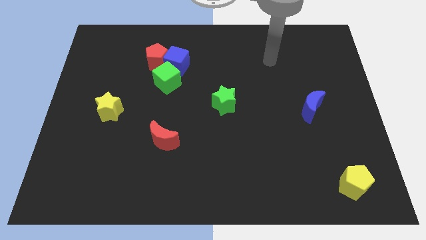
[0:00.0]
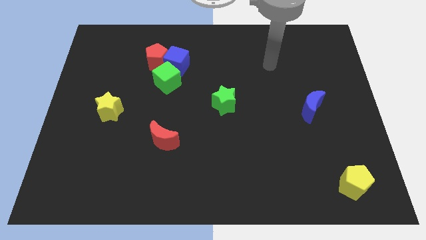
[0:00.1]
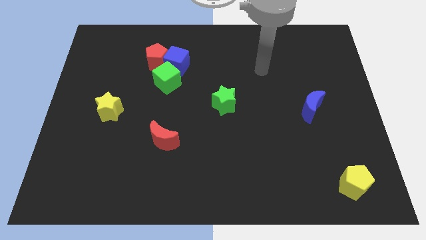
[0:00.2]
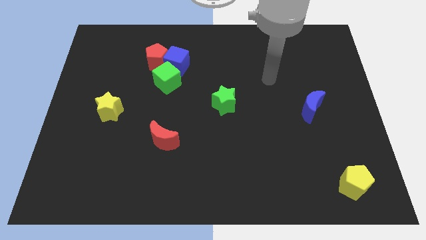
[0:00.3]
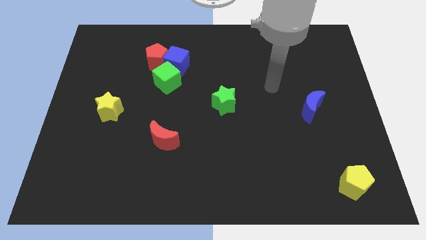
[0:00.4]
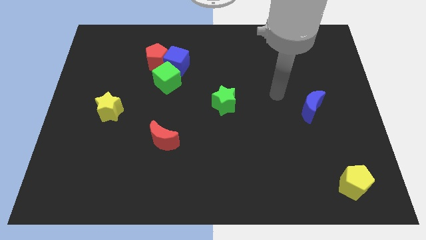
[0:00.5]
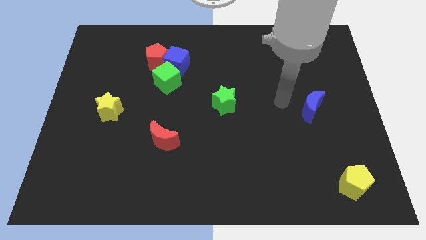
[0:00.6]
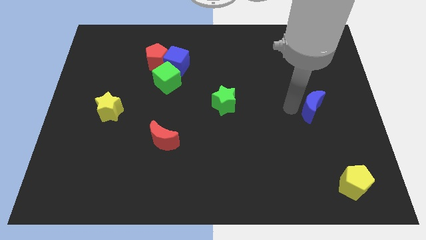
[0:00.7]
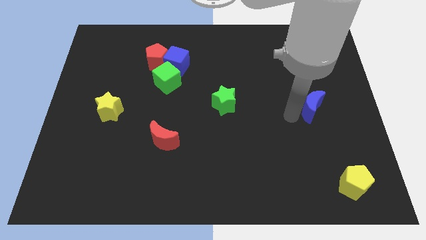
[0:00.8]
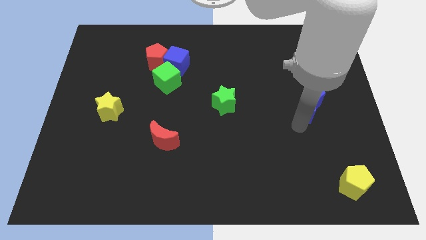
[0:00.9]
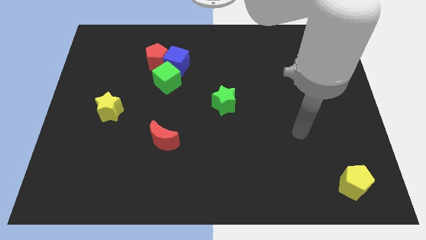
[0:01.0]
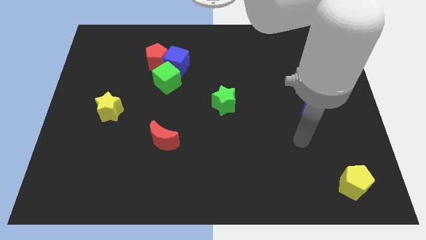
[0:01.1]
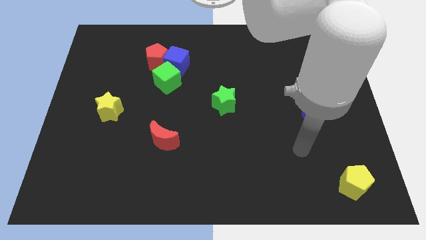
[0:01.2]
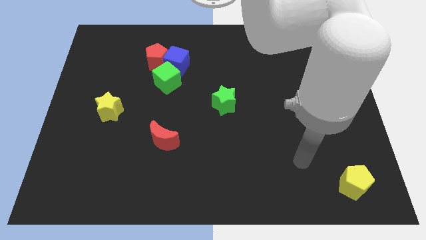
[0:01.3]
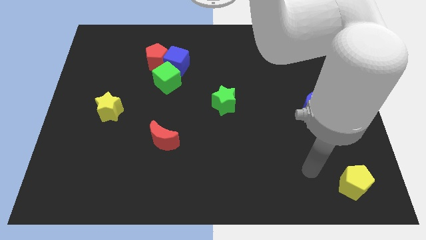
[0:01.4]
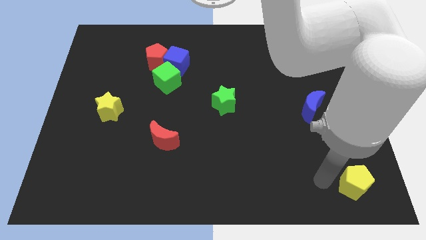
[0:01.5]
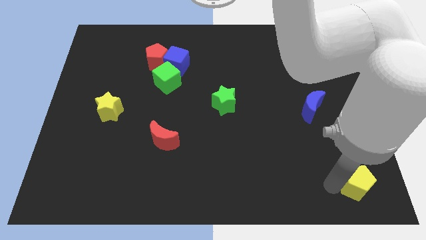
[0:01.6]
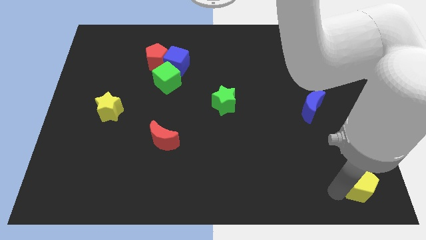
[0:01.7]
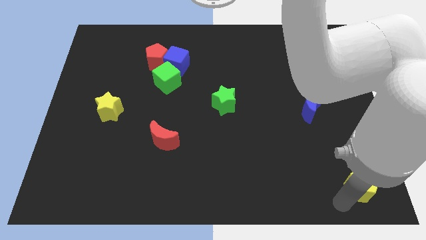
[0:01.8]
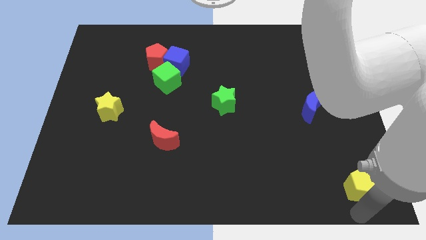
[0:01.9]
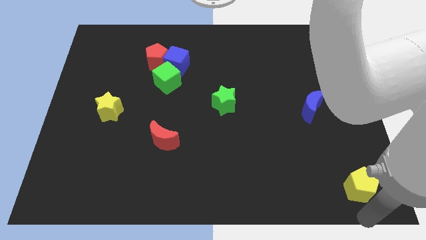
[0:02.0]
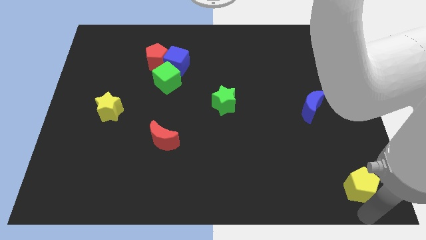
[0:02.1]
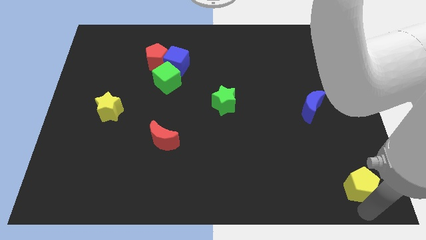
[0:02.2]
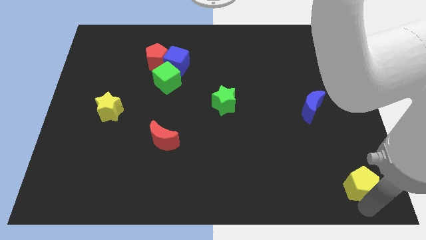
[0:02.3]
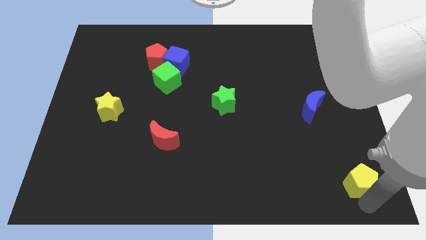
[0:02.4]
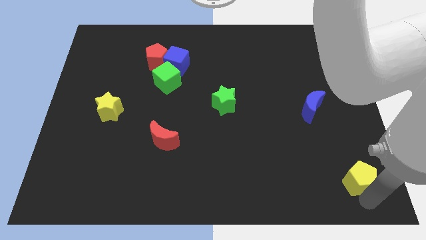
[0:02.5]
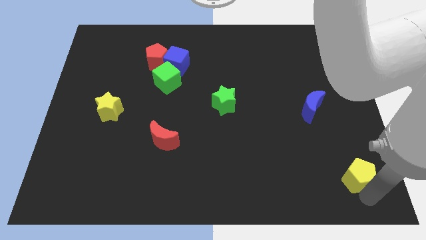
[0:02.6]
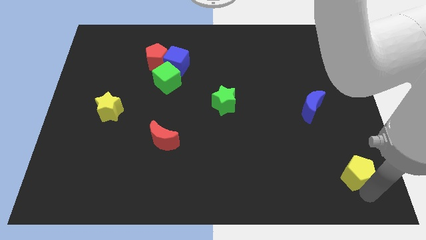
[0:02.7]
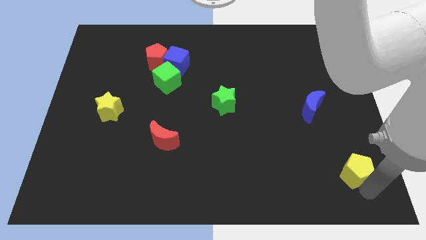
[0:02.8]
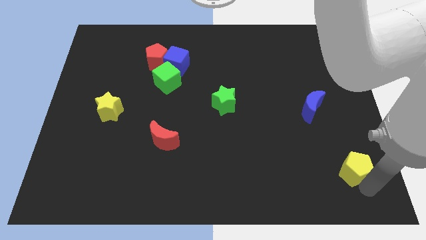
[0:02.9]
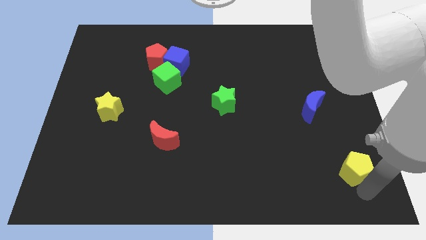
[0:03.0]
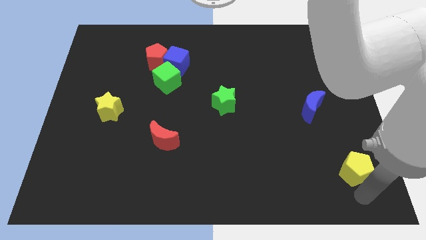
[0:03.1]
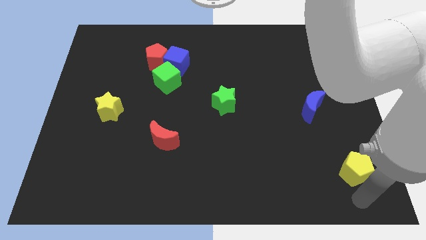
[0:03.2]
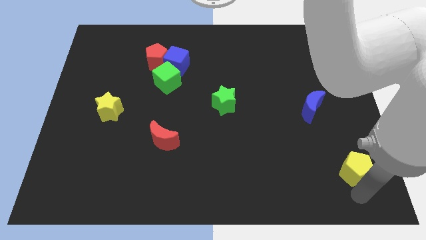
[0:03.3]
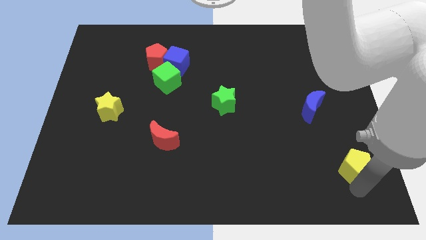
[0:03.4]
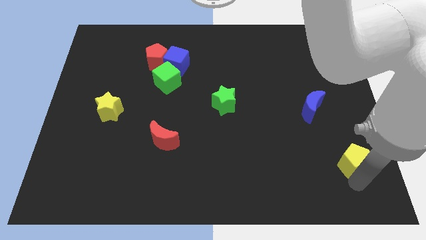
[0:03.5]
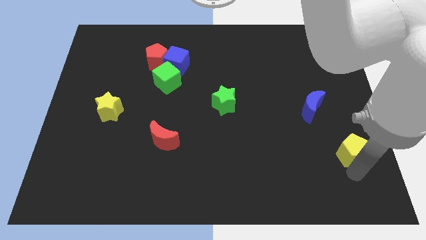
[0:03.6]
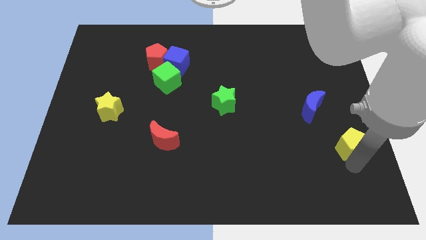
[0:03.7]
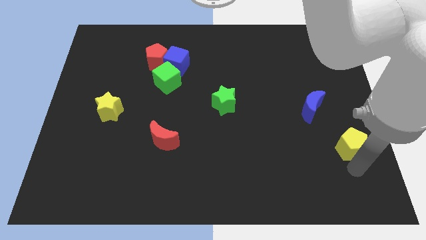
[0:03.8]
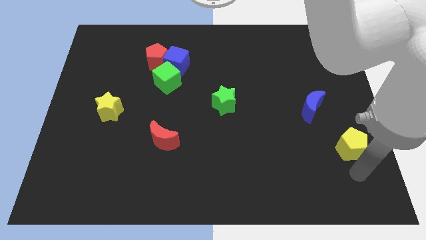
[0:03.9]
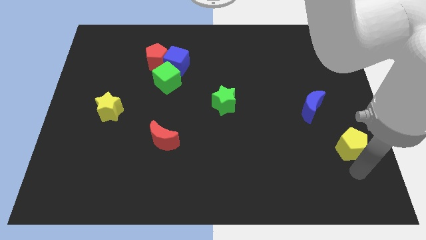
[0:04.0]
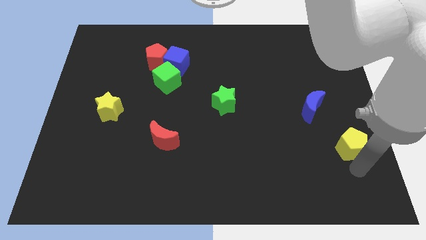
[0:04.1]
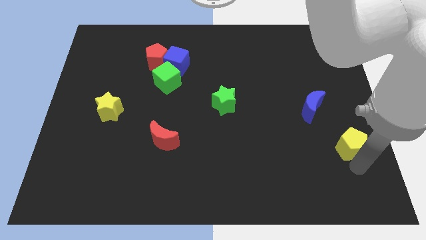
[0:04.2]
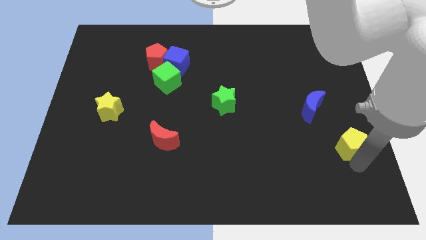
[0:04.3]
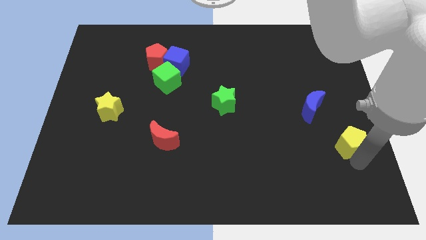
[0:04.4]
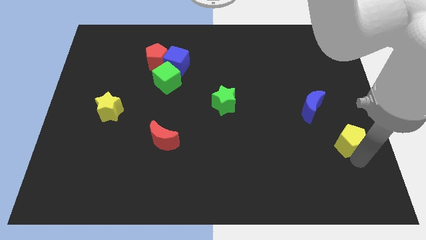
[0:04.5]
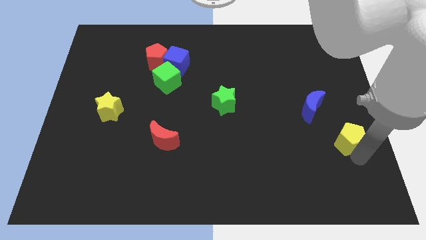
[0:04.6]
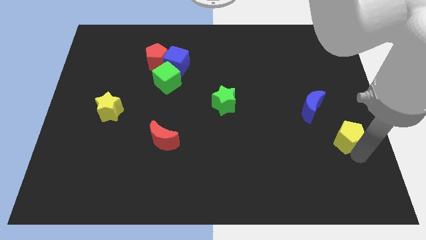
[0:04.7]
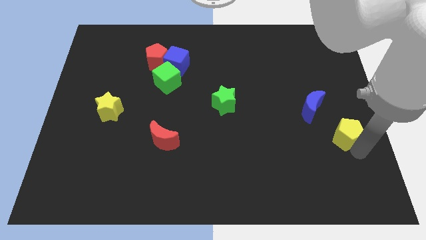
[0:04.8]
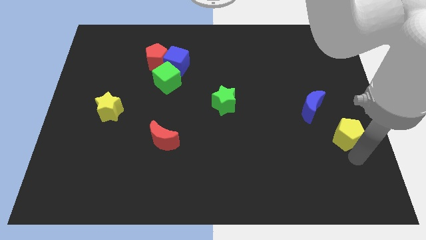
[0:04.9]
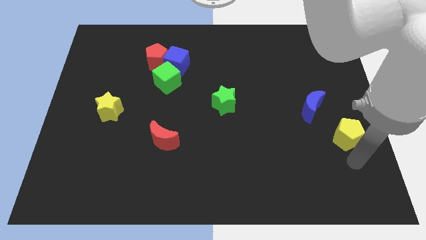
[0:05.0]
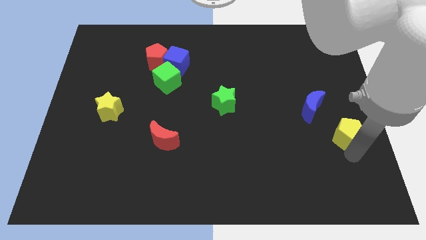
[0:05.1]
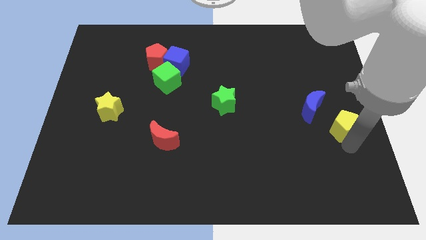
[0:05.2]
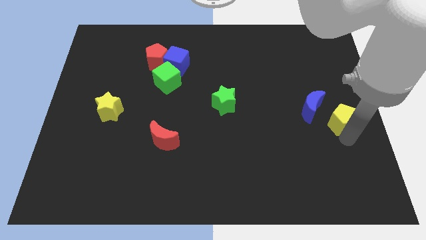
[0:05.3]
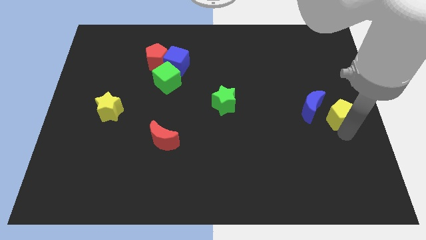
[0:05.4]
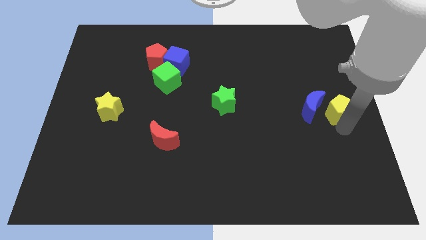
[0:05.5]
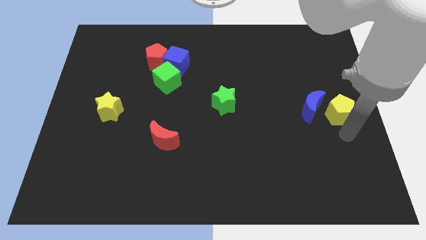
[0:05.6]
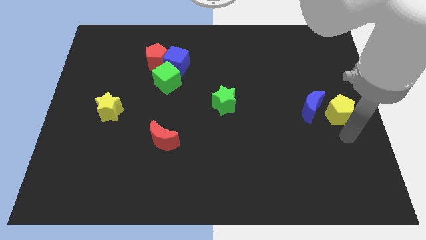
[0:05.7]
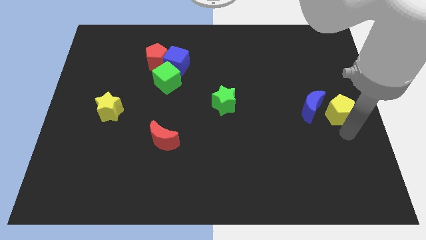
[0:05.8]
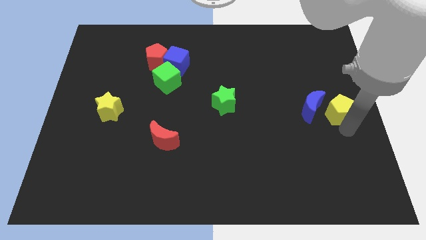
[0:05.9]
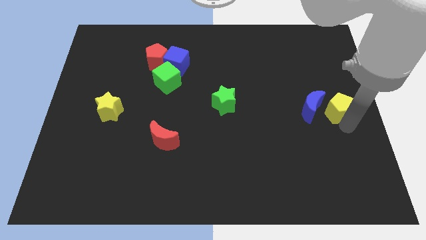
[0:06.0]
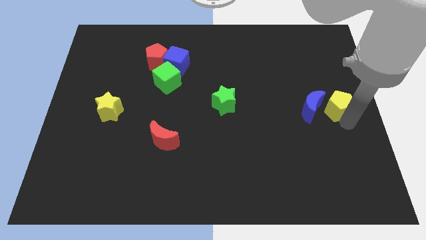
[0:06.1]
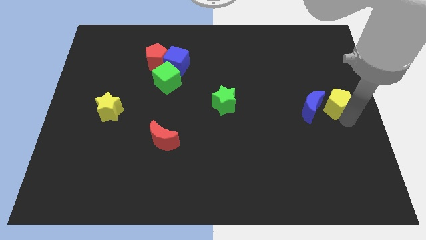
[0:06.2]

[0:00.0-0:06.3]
move the yellow pentagon up

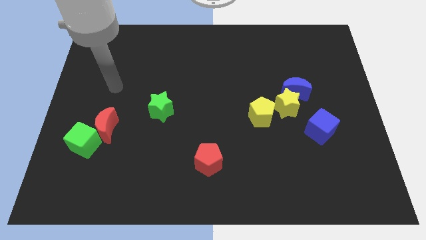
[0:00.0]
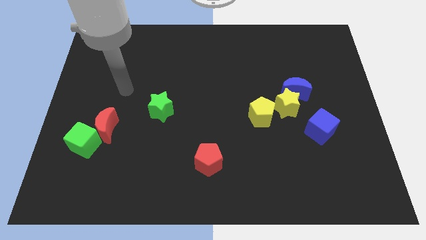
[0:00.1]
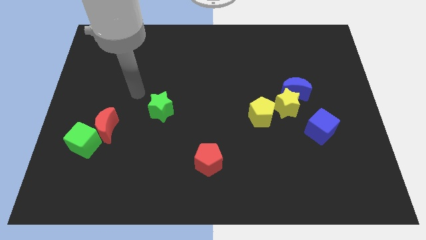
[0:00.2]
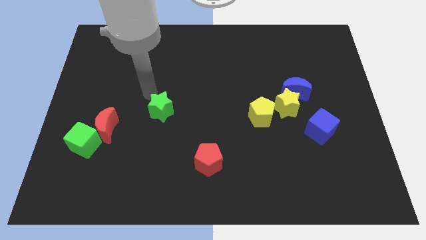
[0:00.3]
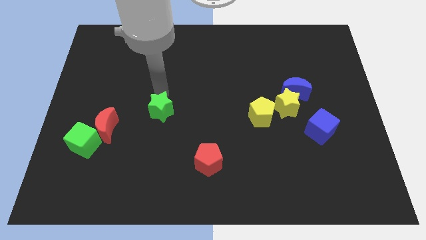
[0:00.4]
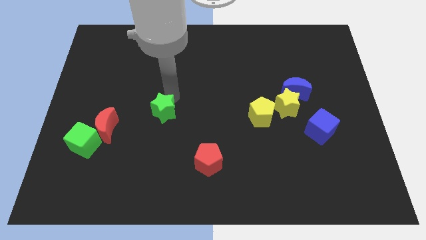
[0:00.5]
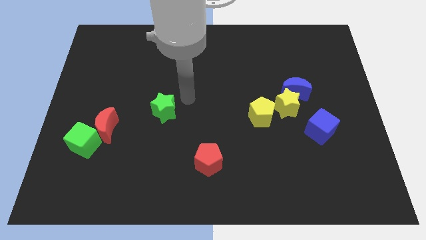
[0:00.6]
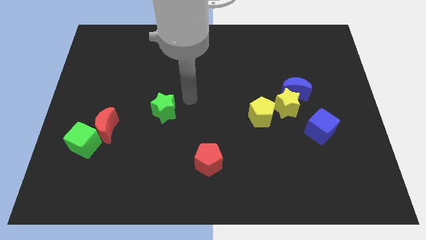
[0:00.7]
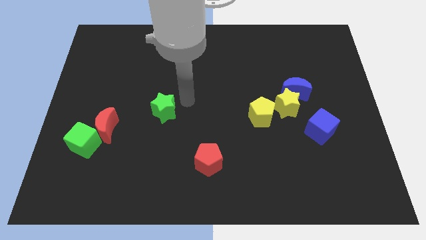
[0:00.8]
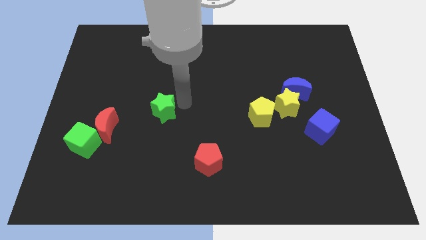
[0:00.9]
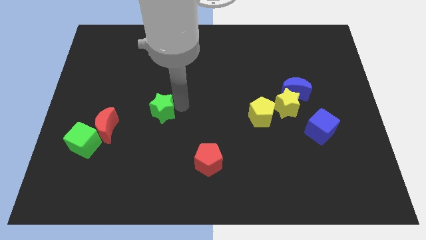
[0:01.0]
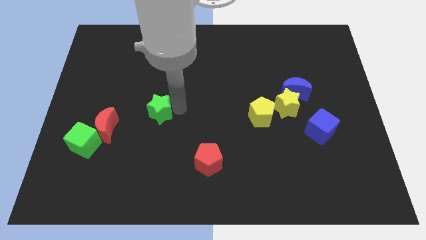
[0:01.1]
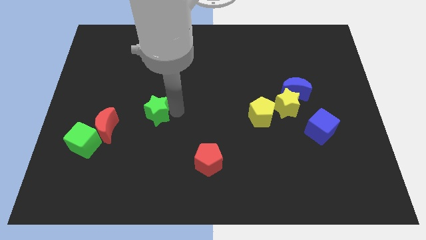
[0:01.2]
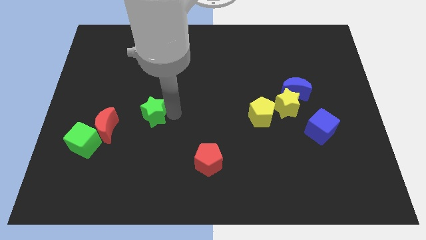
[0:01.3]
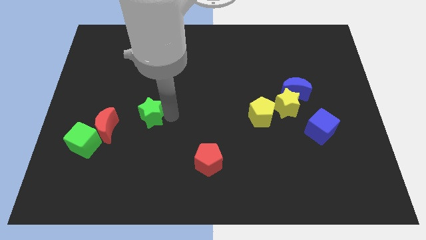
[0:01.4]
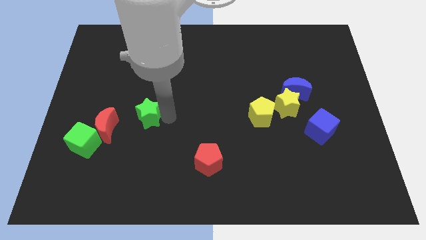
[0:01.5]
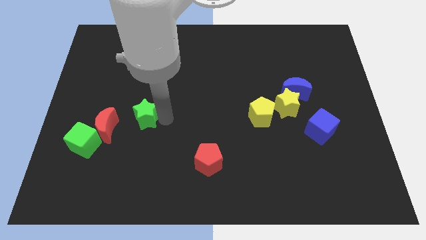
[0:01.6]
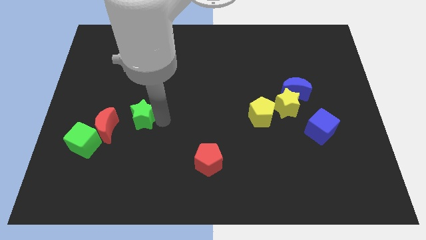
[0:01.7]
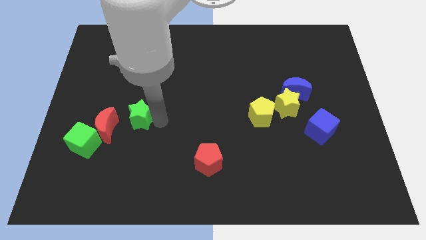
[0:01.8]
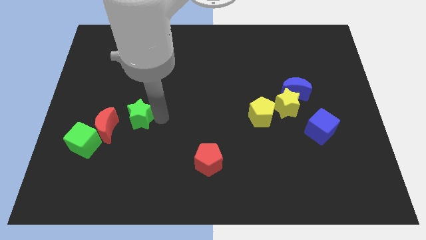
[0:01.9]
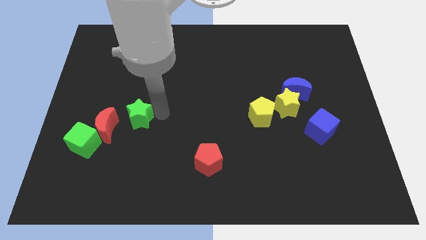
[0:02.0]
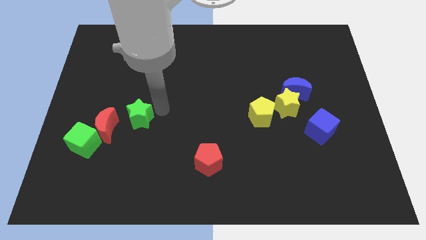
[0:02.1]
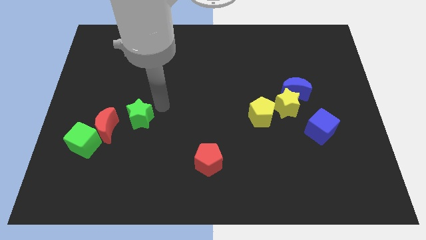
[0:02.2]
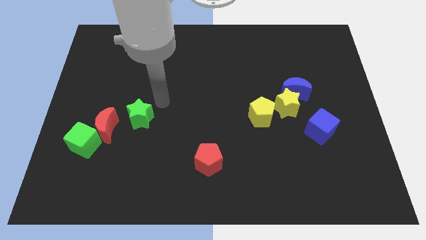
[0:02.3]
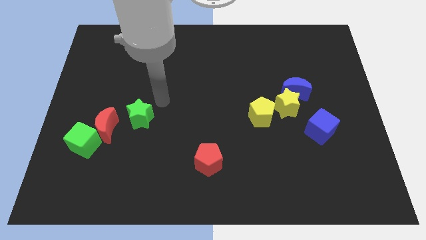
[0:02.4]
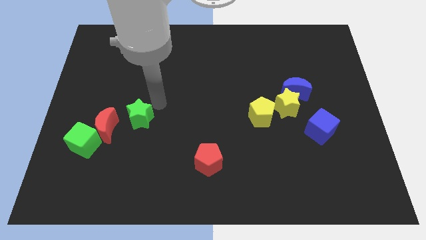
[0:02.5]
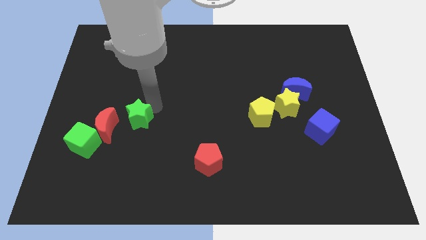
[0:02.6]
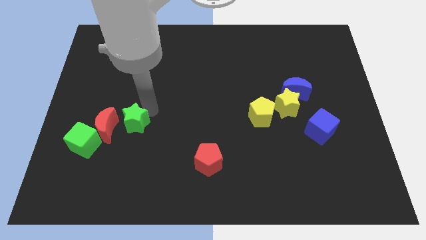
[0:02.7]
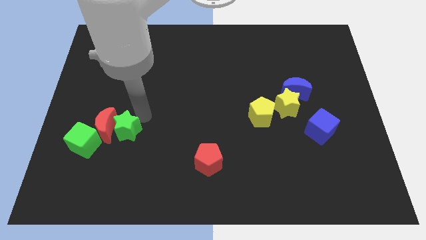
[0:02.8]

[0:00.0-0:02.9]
push the green star a little downwards and then left
